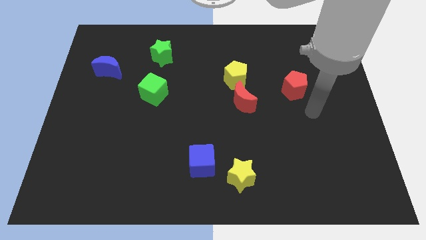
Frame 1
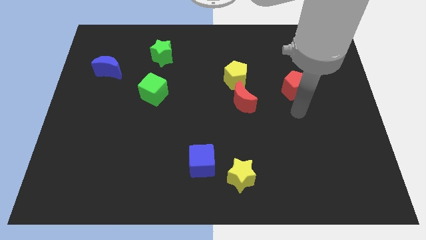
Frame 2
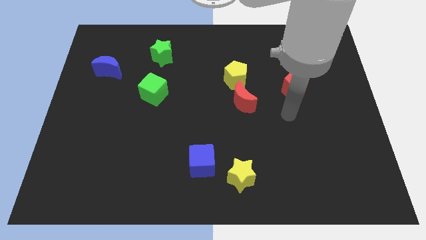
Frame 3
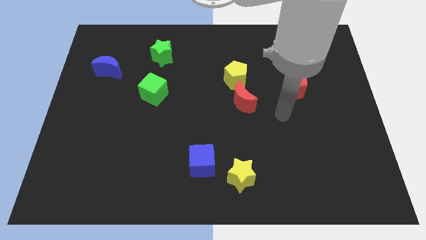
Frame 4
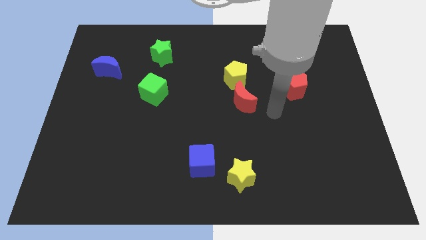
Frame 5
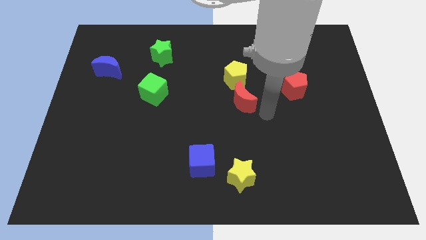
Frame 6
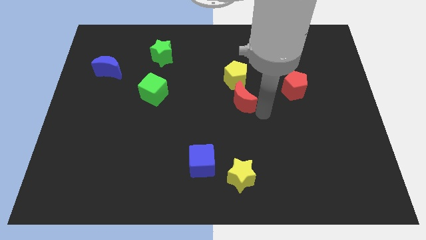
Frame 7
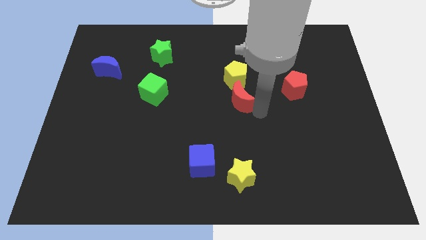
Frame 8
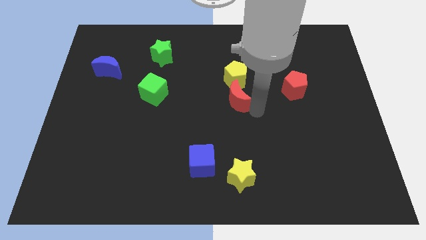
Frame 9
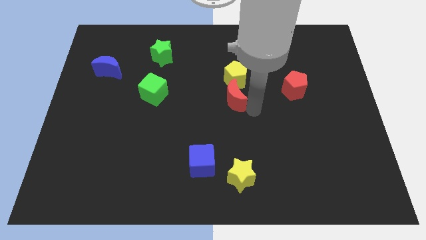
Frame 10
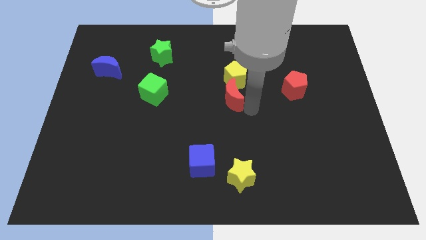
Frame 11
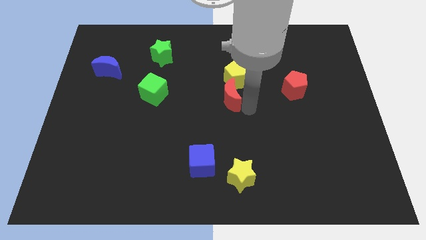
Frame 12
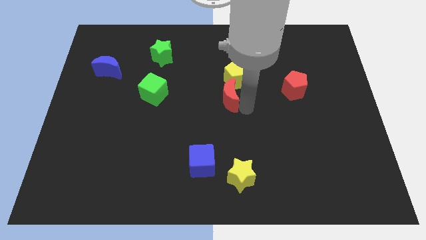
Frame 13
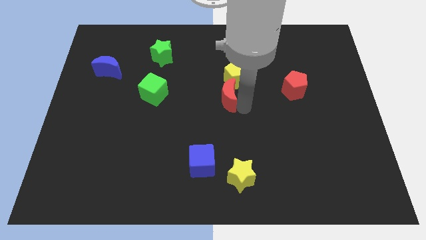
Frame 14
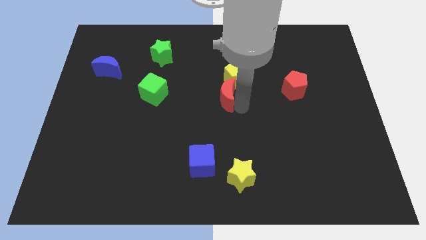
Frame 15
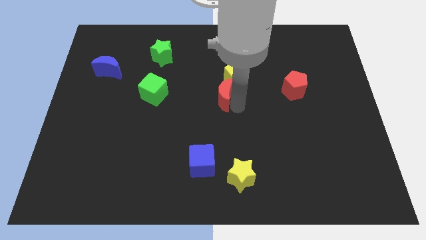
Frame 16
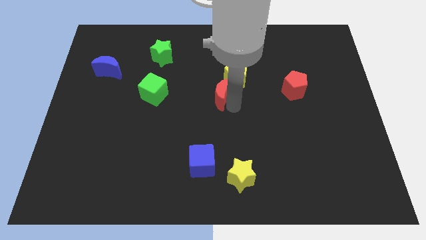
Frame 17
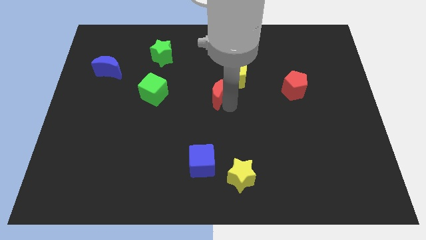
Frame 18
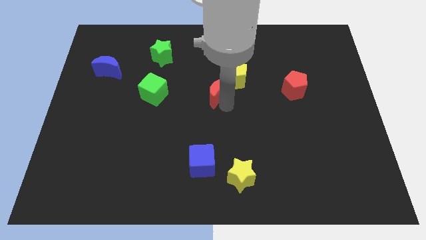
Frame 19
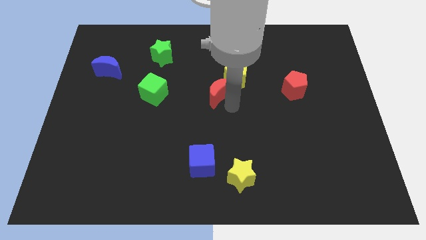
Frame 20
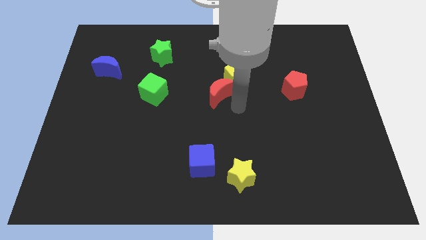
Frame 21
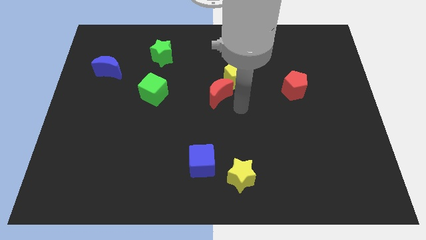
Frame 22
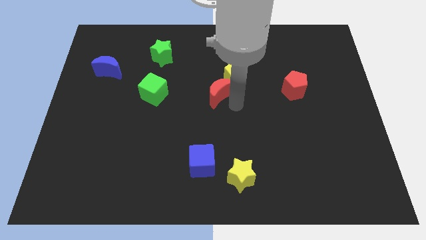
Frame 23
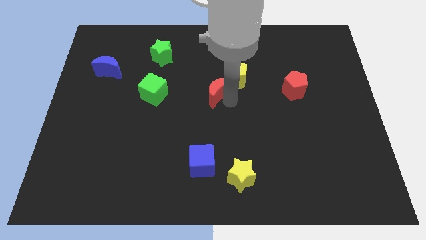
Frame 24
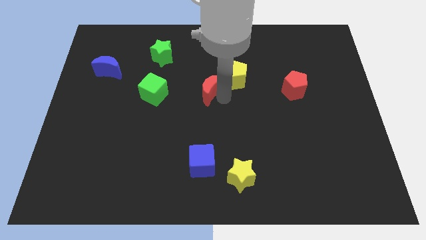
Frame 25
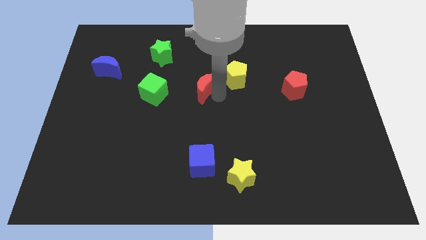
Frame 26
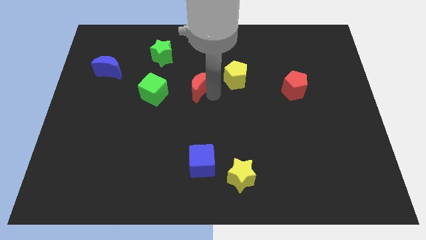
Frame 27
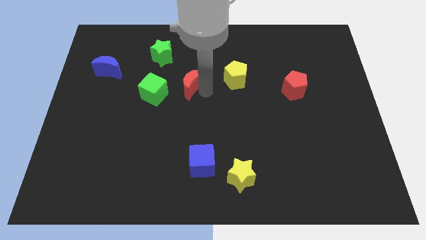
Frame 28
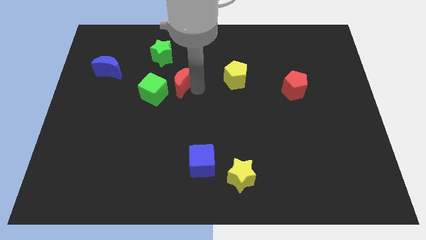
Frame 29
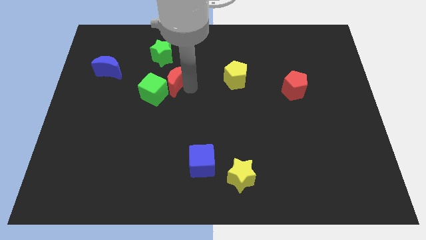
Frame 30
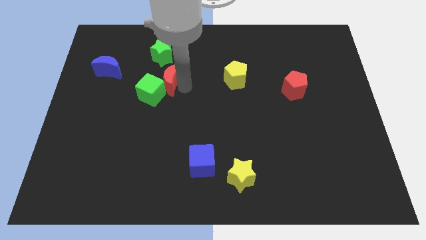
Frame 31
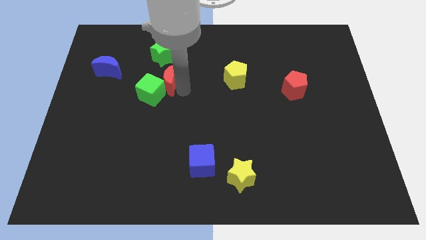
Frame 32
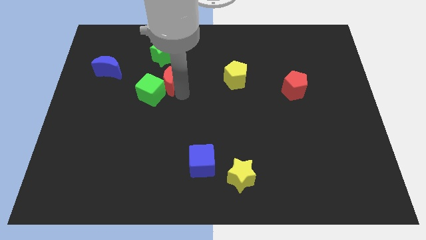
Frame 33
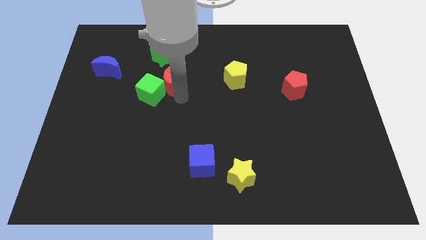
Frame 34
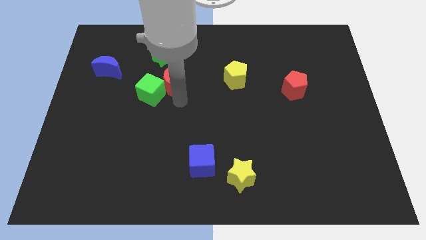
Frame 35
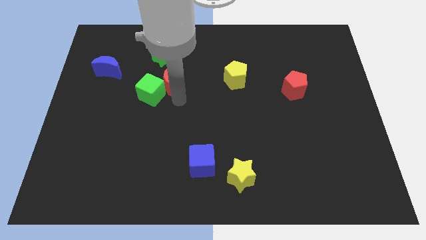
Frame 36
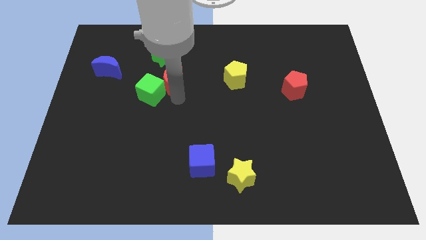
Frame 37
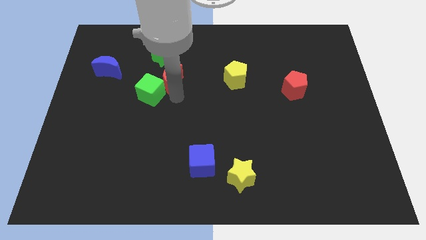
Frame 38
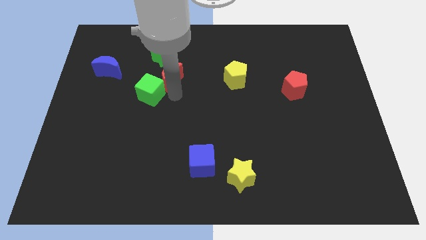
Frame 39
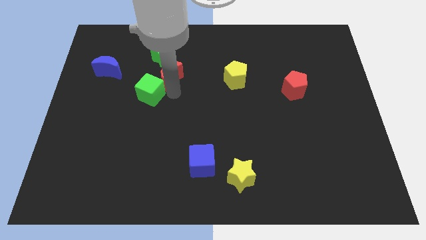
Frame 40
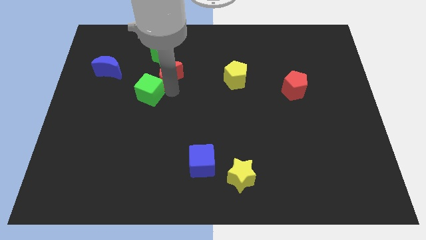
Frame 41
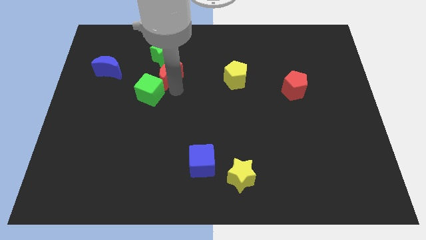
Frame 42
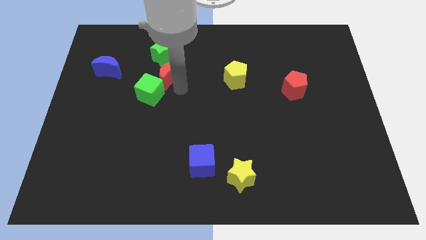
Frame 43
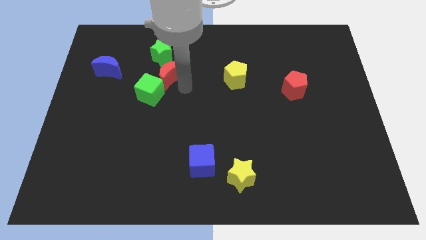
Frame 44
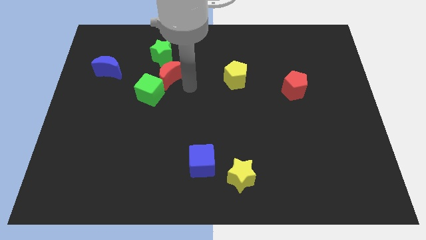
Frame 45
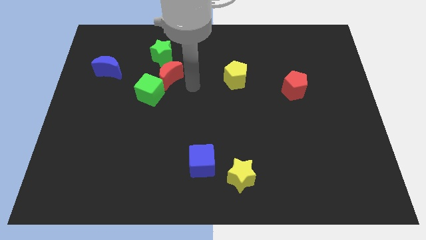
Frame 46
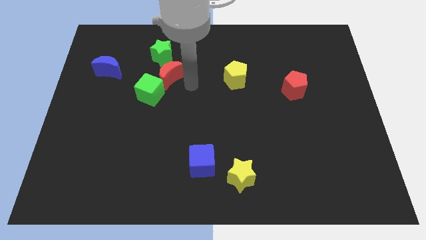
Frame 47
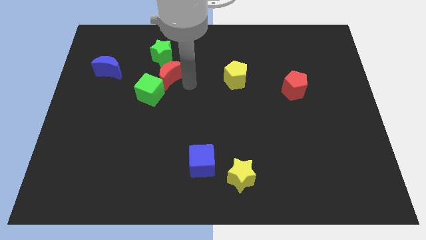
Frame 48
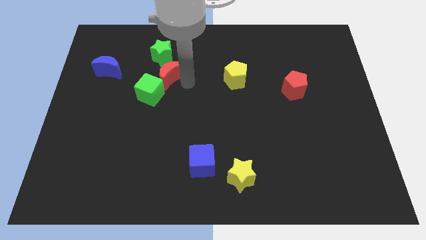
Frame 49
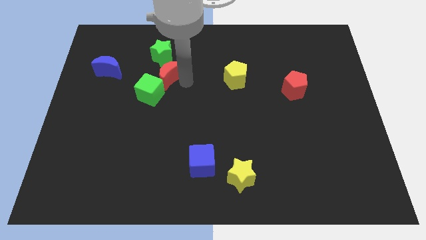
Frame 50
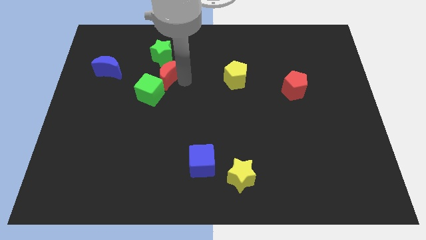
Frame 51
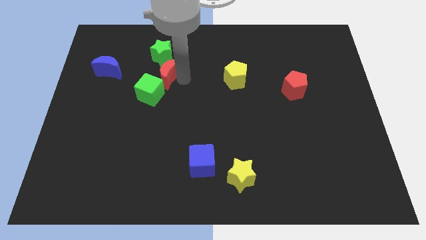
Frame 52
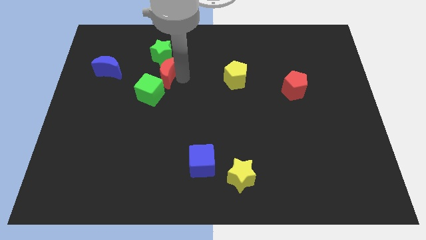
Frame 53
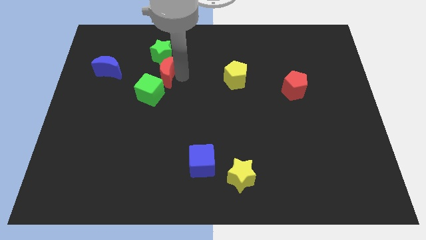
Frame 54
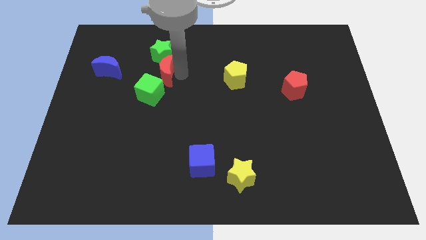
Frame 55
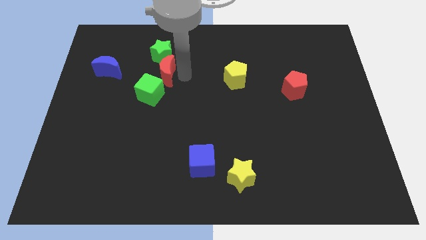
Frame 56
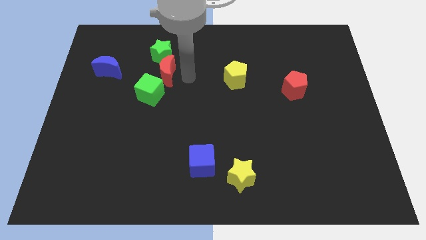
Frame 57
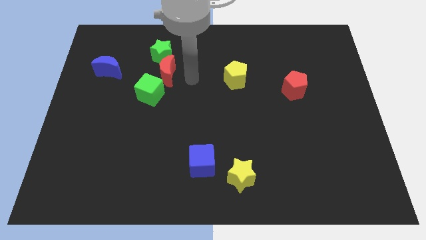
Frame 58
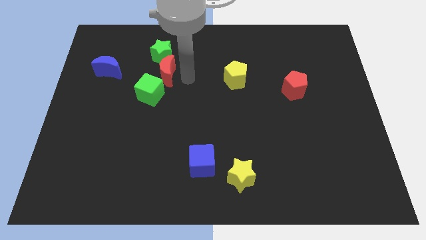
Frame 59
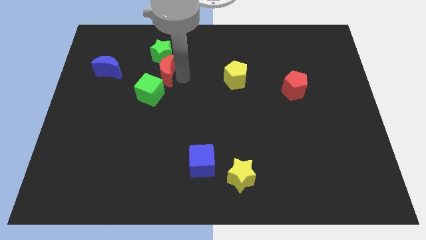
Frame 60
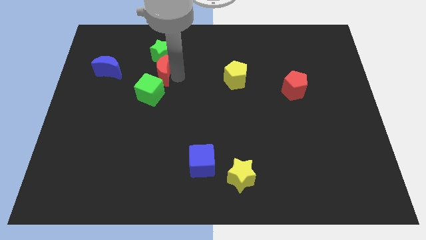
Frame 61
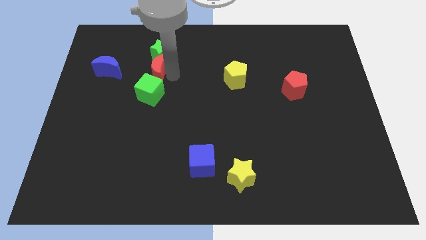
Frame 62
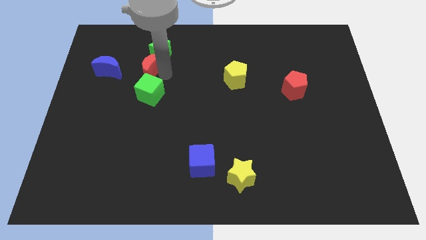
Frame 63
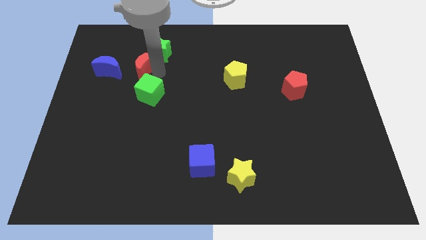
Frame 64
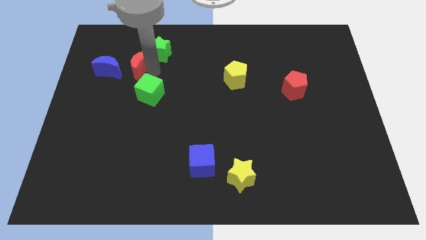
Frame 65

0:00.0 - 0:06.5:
move the red moon left of the green star
